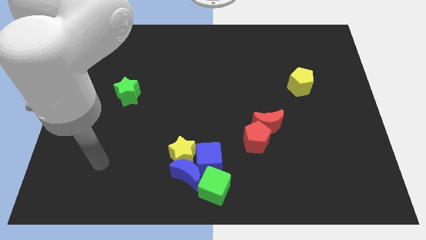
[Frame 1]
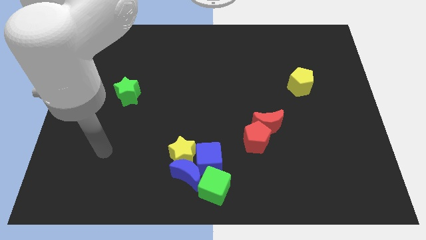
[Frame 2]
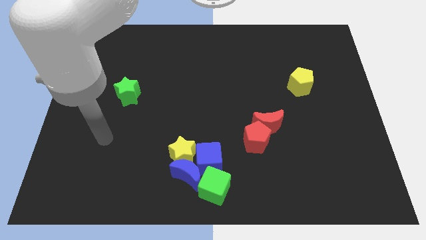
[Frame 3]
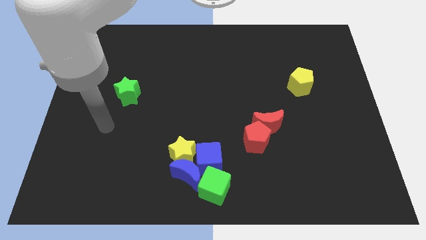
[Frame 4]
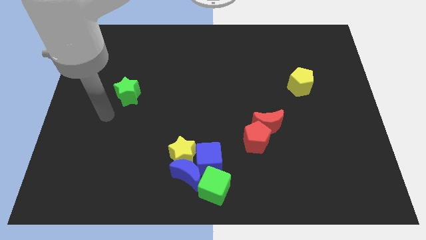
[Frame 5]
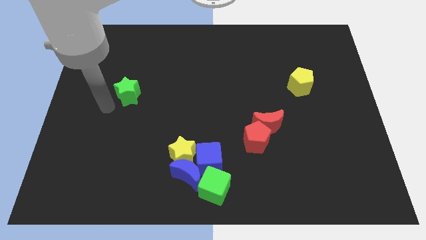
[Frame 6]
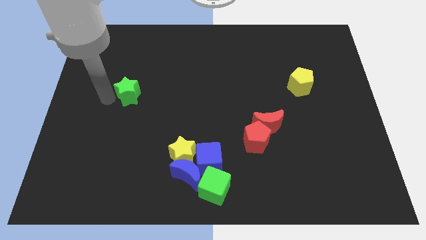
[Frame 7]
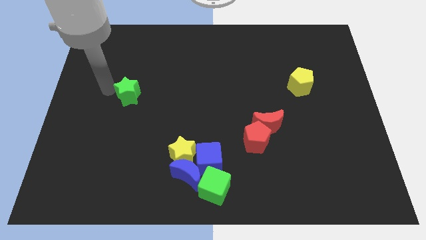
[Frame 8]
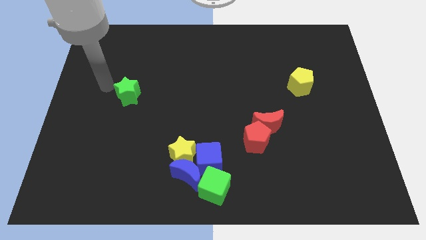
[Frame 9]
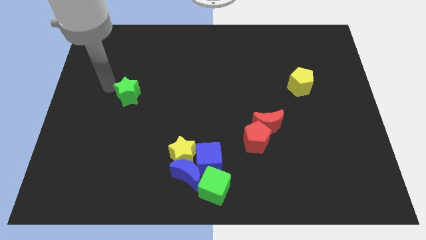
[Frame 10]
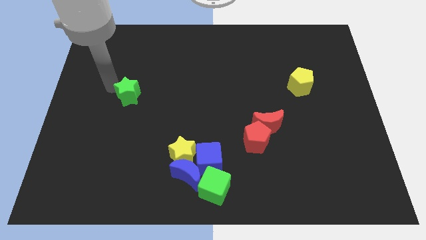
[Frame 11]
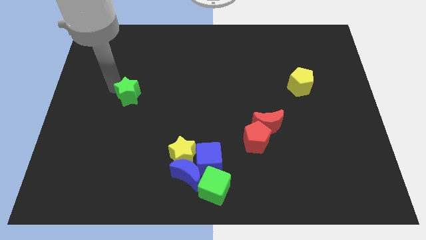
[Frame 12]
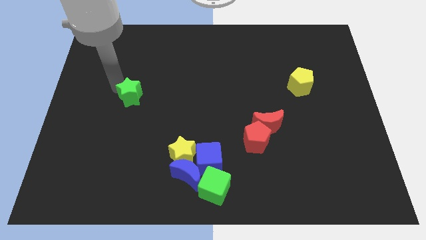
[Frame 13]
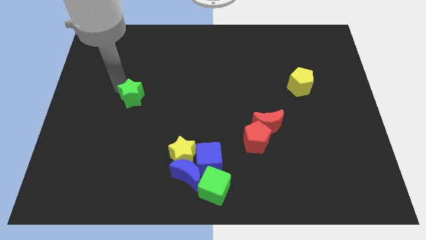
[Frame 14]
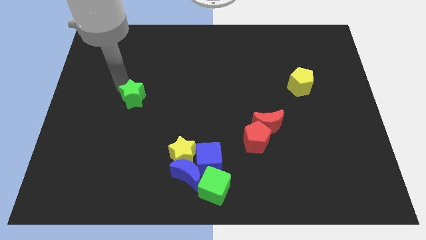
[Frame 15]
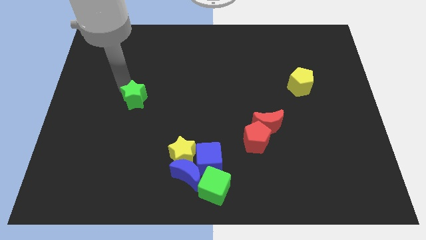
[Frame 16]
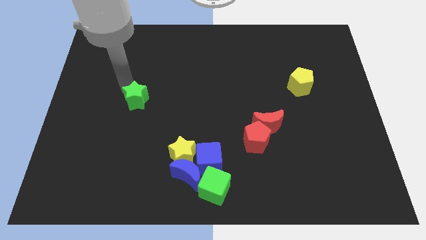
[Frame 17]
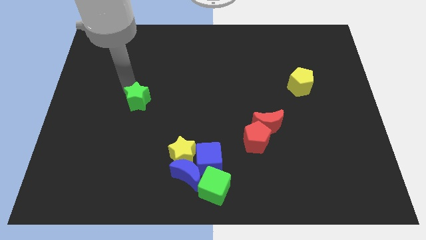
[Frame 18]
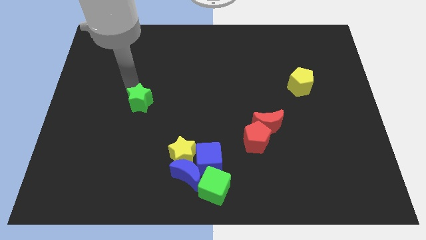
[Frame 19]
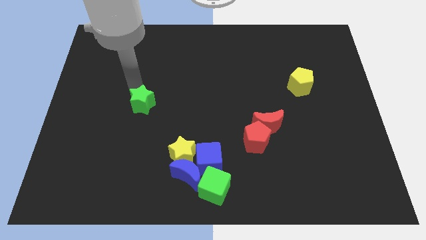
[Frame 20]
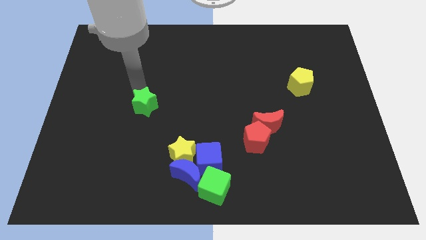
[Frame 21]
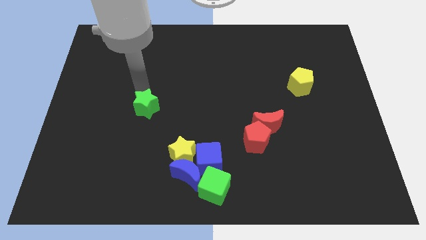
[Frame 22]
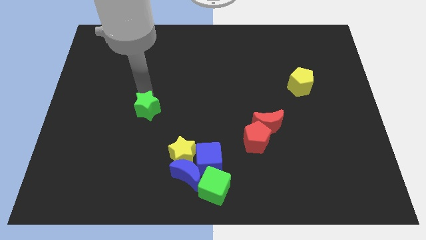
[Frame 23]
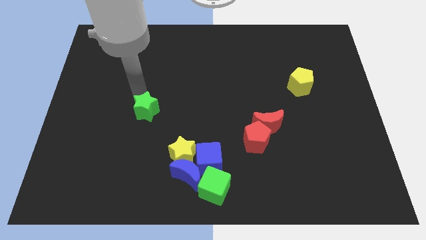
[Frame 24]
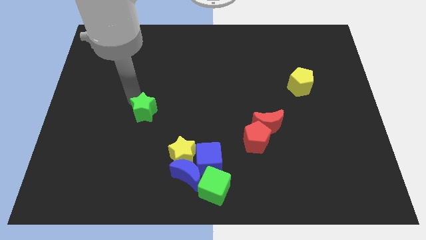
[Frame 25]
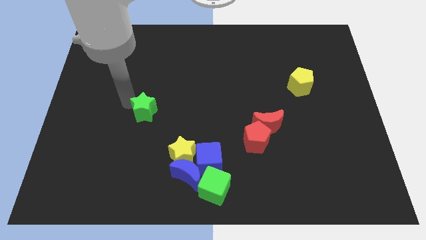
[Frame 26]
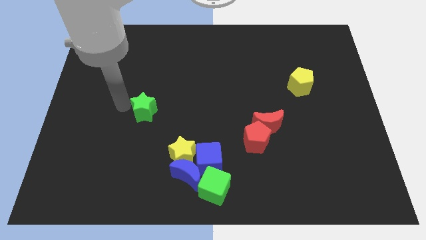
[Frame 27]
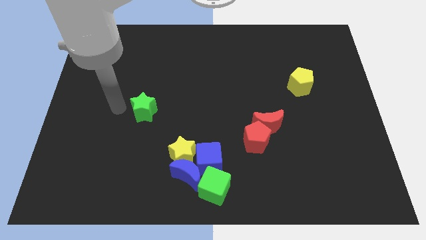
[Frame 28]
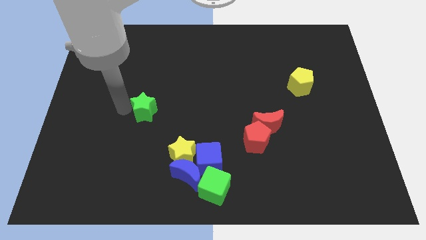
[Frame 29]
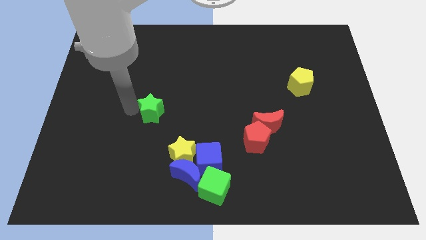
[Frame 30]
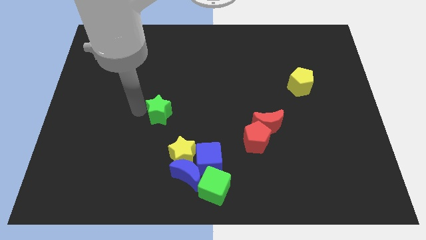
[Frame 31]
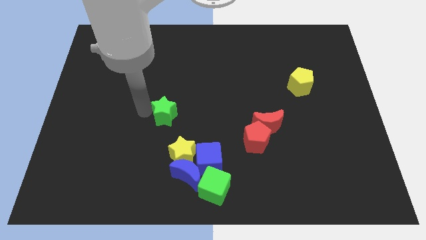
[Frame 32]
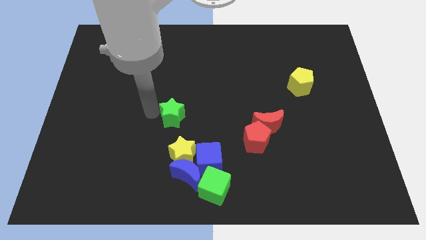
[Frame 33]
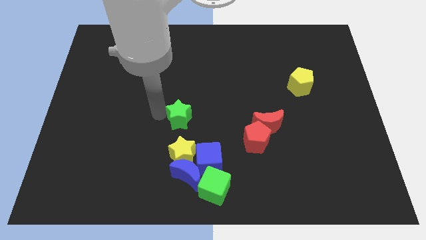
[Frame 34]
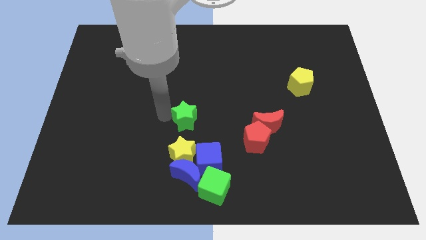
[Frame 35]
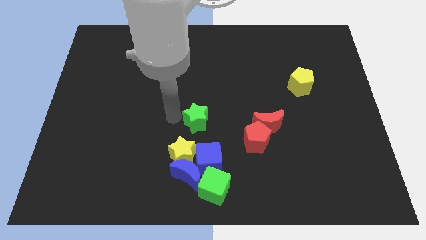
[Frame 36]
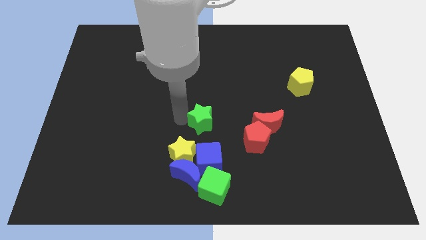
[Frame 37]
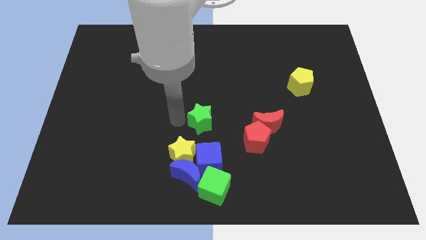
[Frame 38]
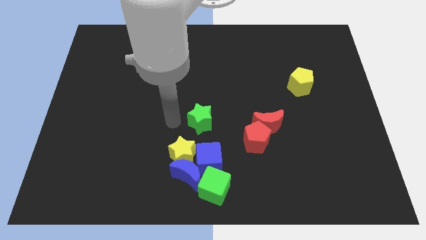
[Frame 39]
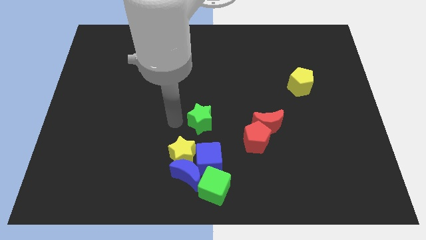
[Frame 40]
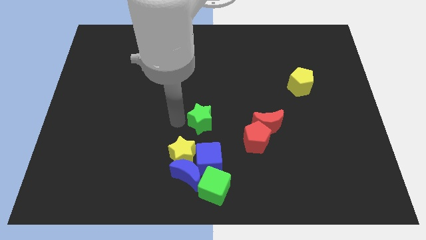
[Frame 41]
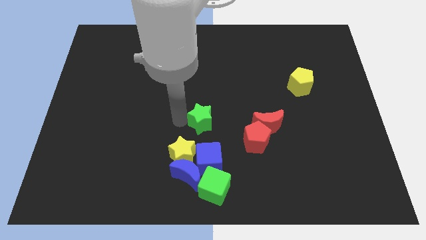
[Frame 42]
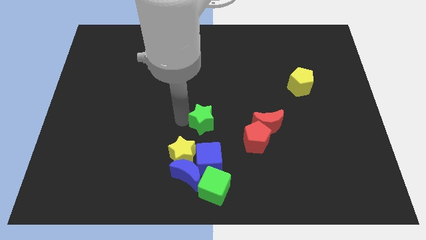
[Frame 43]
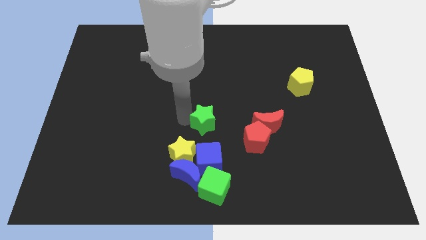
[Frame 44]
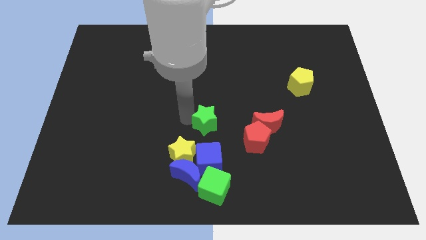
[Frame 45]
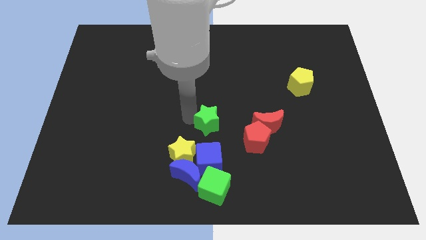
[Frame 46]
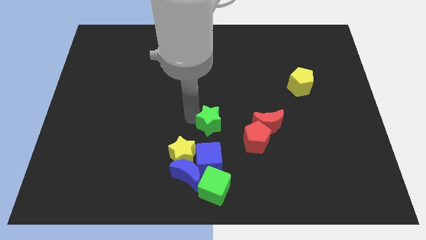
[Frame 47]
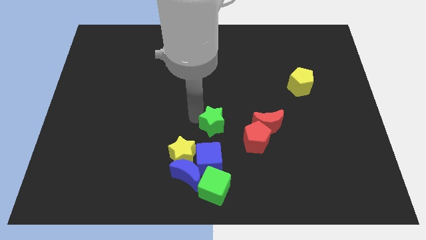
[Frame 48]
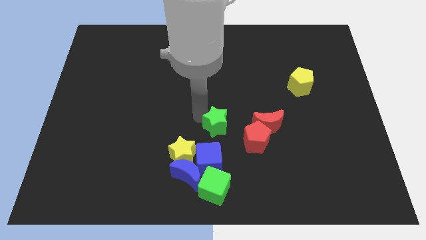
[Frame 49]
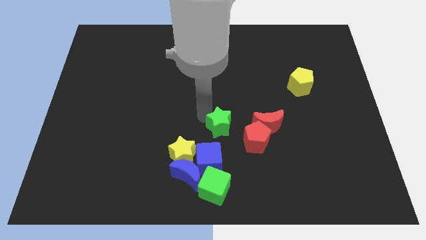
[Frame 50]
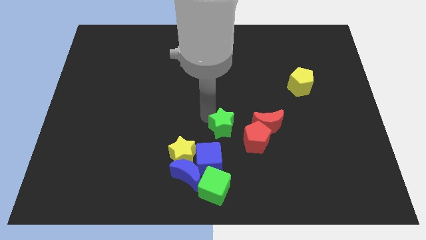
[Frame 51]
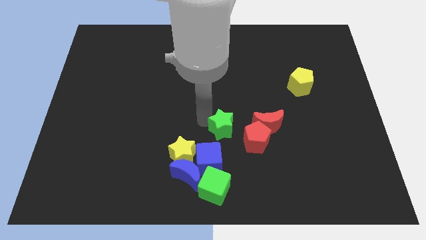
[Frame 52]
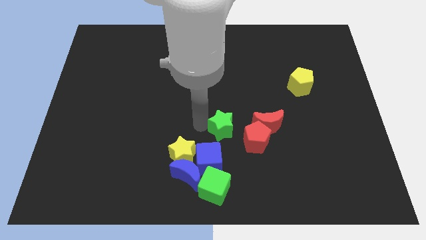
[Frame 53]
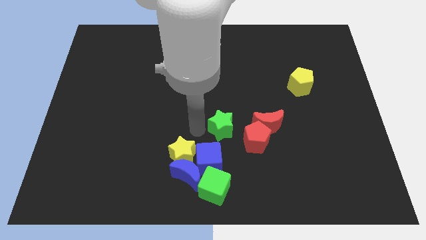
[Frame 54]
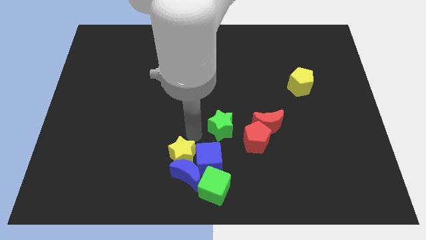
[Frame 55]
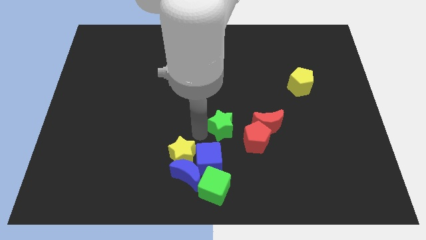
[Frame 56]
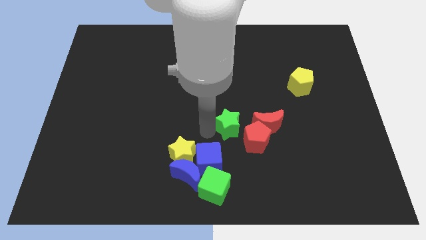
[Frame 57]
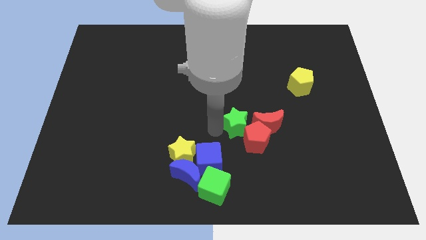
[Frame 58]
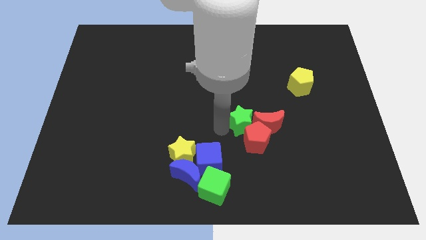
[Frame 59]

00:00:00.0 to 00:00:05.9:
push the green star towards the red moon

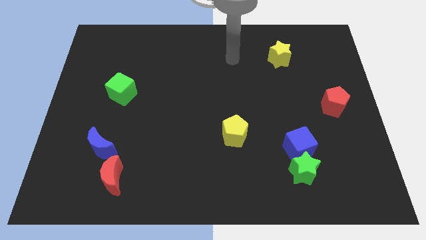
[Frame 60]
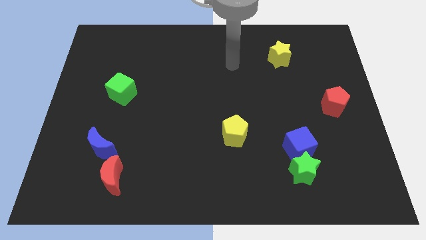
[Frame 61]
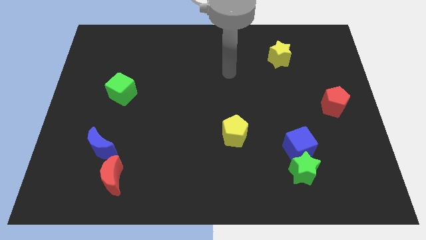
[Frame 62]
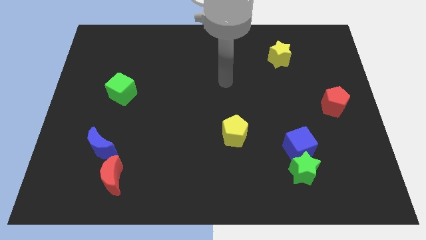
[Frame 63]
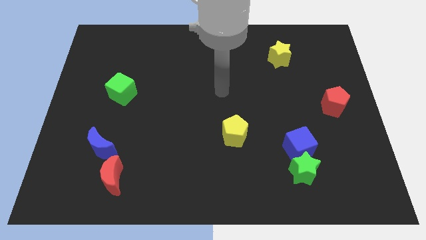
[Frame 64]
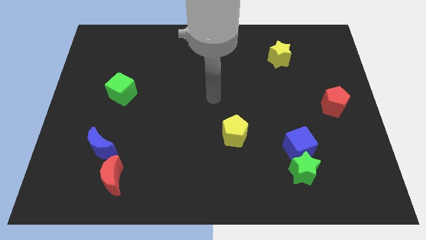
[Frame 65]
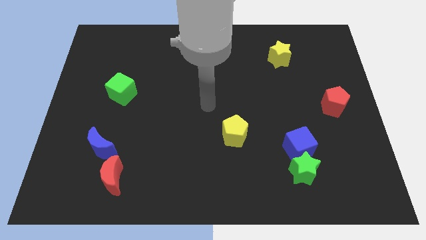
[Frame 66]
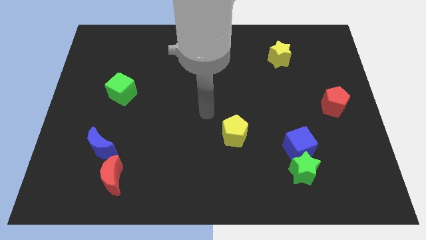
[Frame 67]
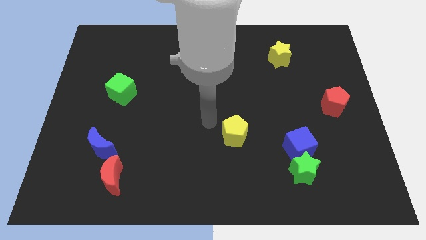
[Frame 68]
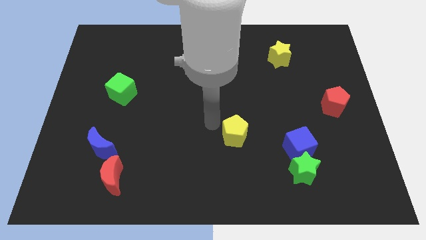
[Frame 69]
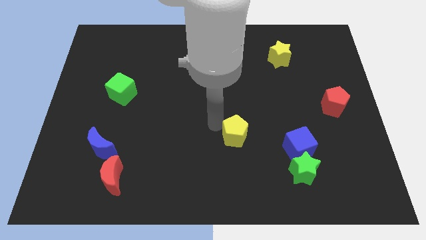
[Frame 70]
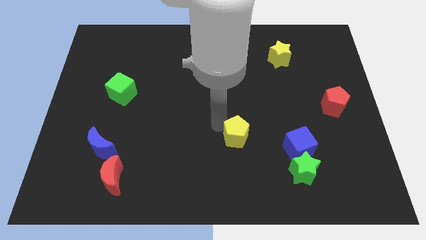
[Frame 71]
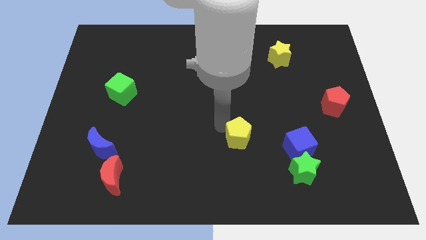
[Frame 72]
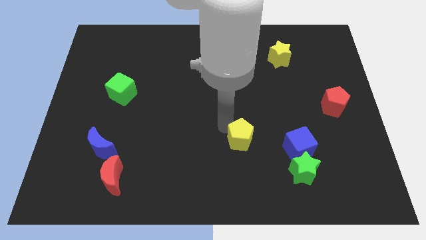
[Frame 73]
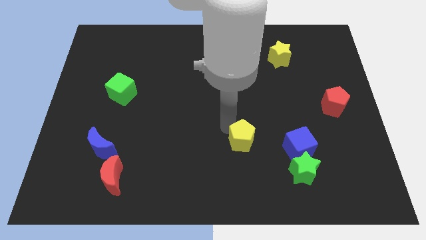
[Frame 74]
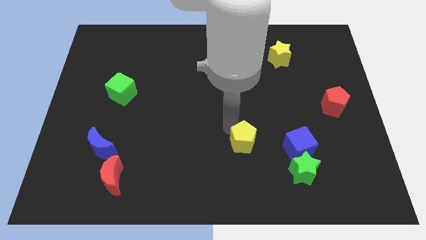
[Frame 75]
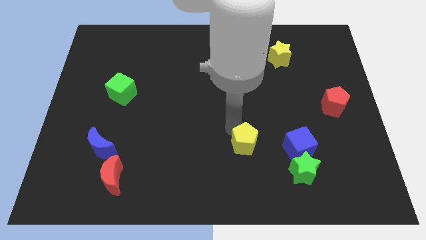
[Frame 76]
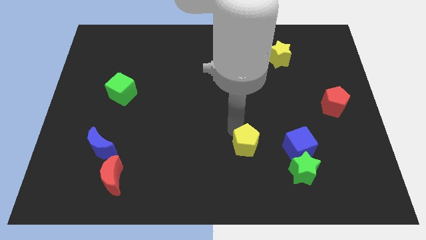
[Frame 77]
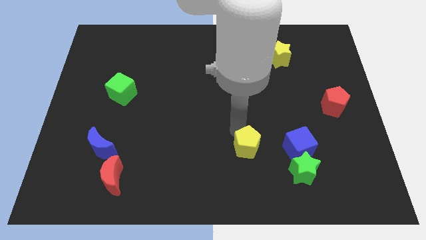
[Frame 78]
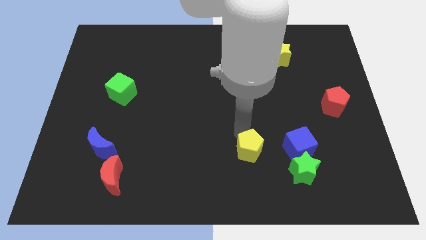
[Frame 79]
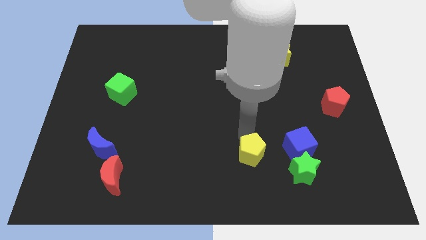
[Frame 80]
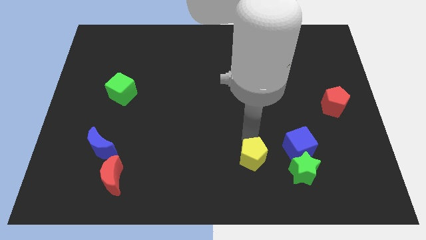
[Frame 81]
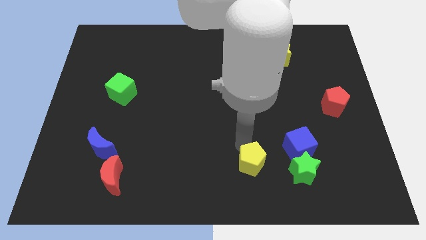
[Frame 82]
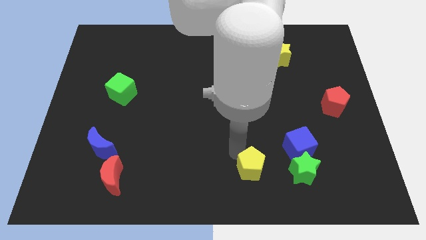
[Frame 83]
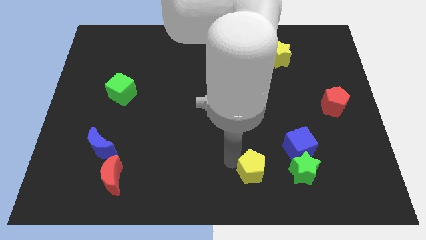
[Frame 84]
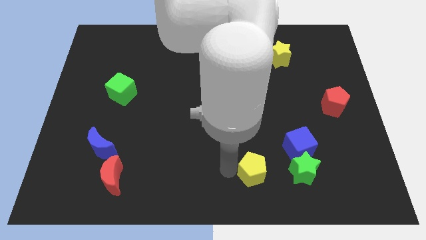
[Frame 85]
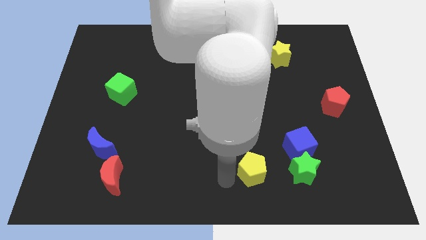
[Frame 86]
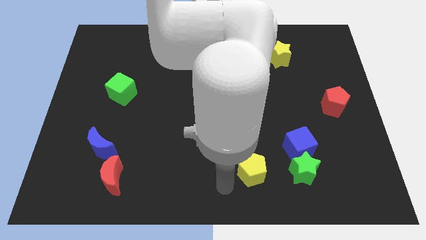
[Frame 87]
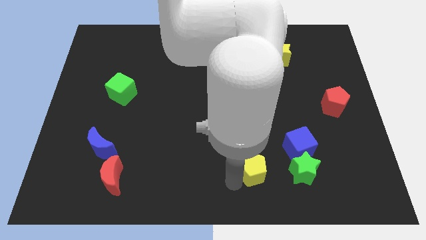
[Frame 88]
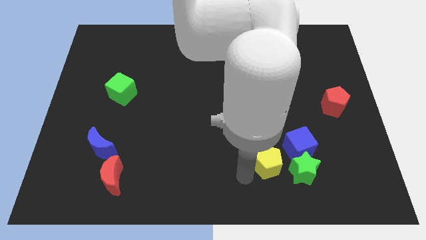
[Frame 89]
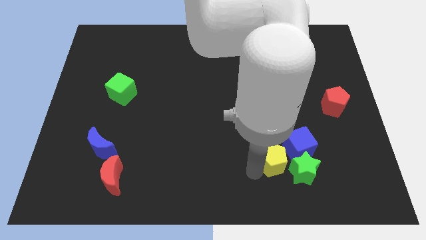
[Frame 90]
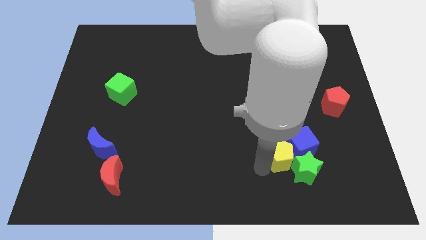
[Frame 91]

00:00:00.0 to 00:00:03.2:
put the yellow pentagon towards the blue cube

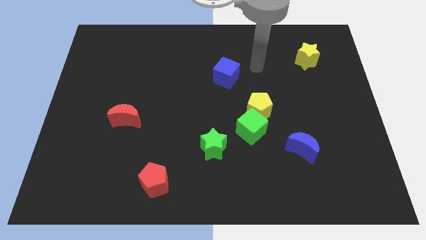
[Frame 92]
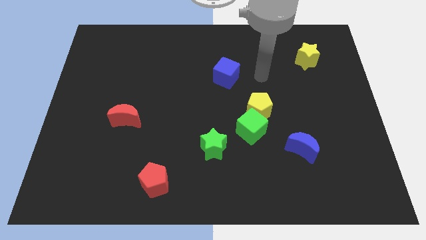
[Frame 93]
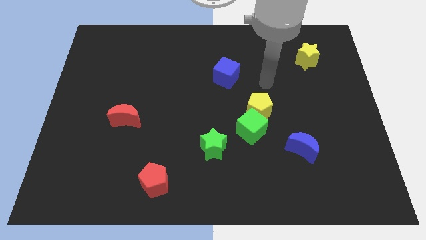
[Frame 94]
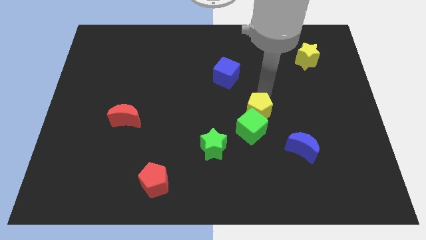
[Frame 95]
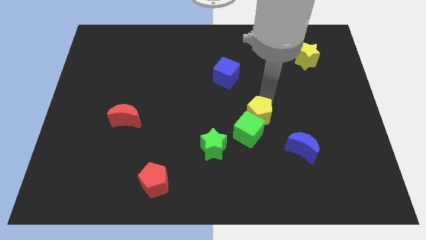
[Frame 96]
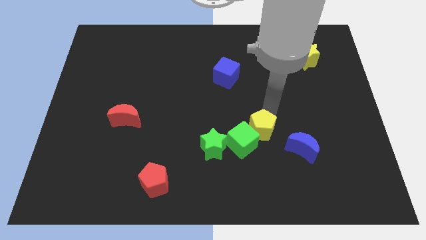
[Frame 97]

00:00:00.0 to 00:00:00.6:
move the green cube next to the green star
